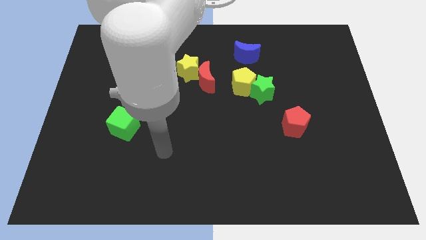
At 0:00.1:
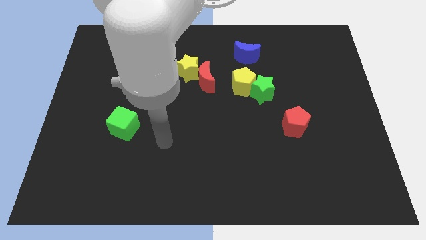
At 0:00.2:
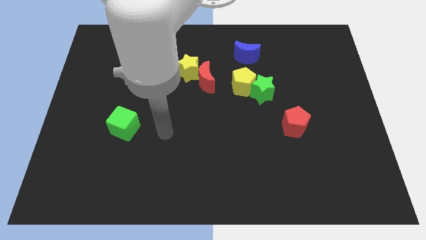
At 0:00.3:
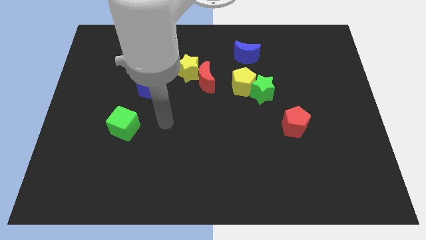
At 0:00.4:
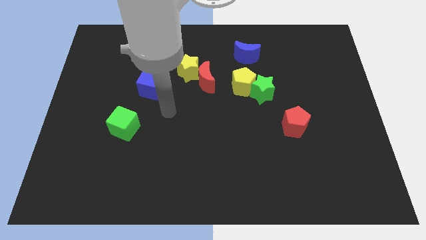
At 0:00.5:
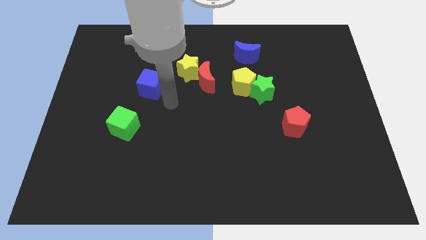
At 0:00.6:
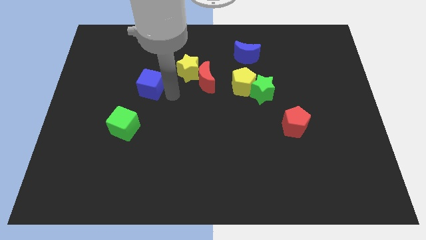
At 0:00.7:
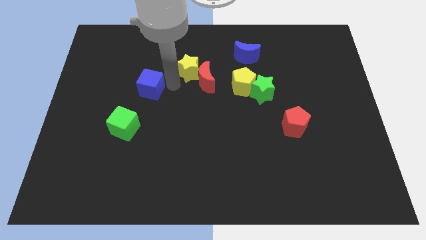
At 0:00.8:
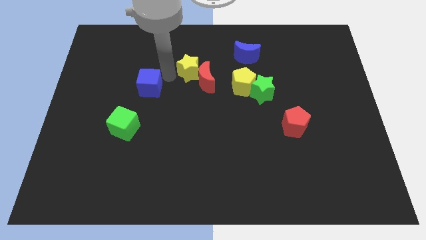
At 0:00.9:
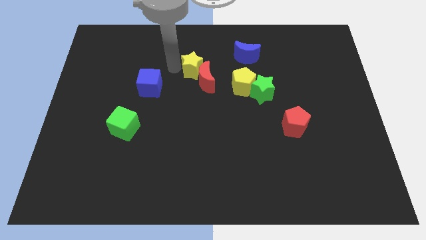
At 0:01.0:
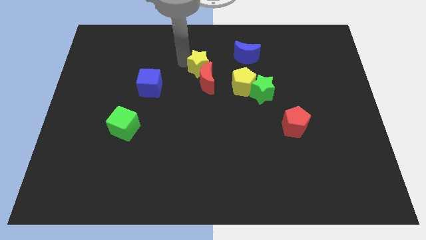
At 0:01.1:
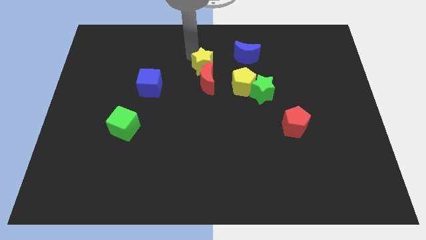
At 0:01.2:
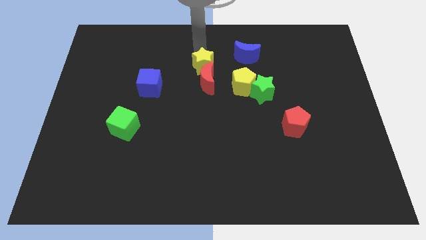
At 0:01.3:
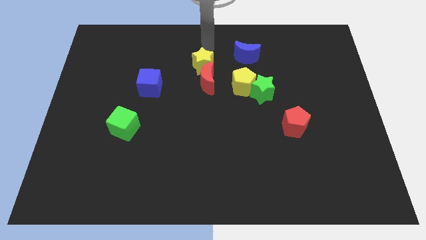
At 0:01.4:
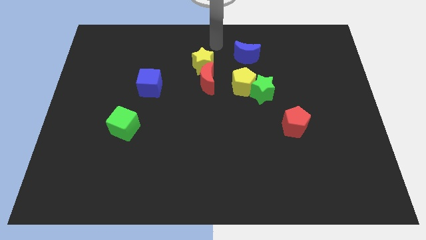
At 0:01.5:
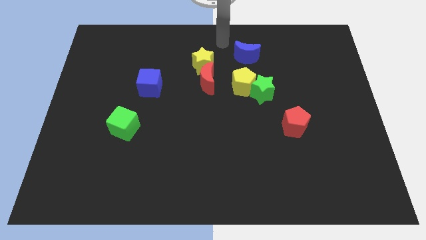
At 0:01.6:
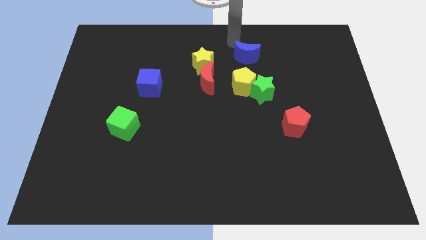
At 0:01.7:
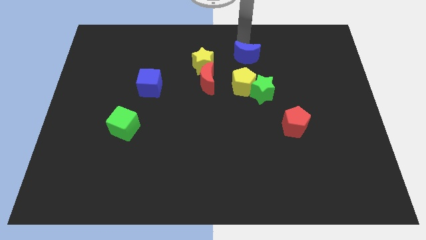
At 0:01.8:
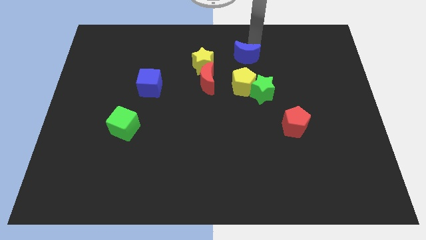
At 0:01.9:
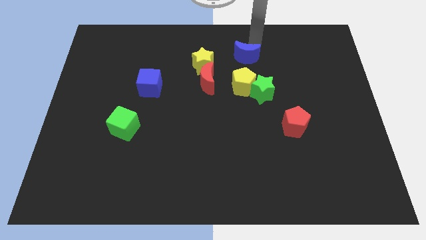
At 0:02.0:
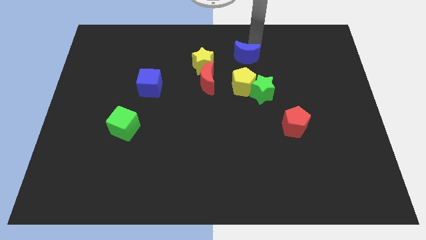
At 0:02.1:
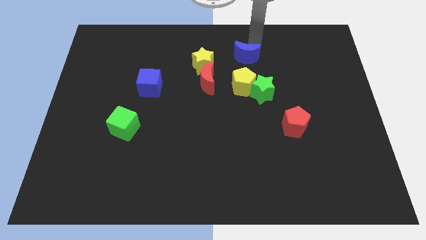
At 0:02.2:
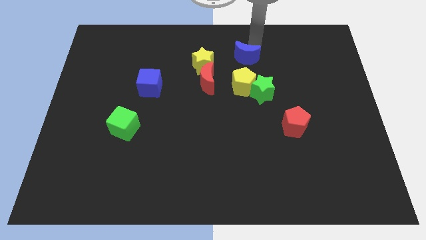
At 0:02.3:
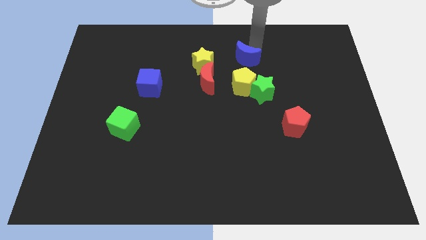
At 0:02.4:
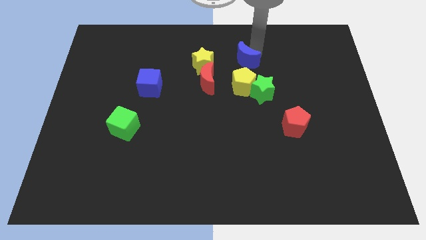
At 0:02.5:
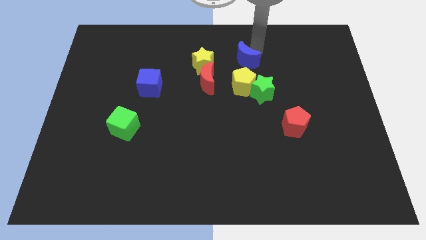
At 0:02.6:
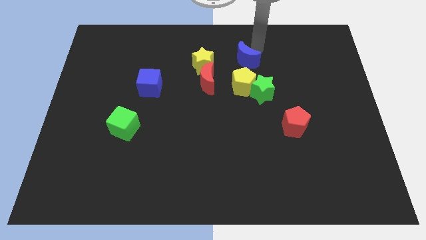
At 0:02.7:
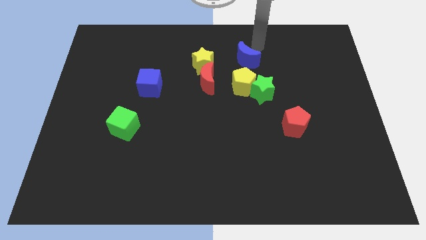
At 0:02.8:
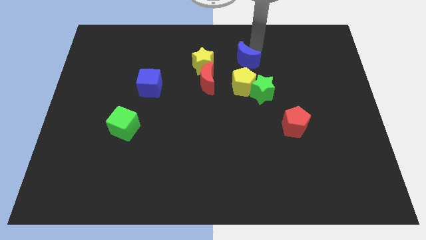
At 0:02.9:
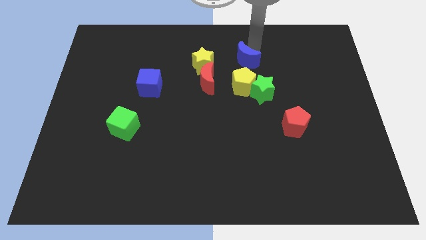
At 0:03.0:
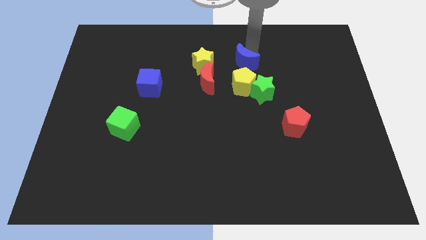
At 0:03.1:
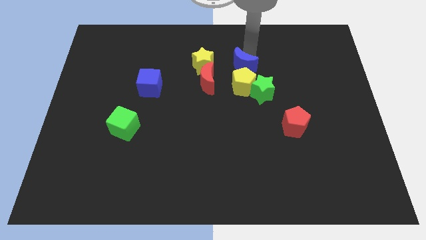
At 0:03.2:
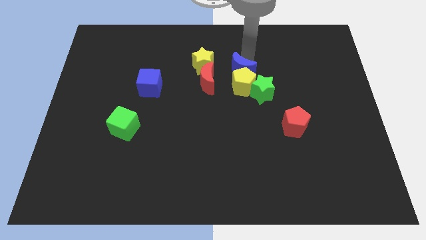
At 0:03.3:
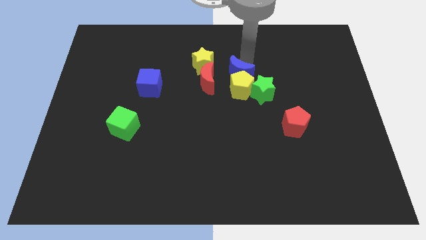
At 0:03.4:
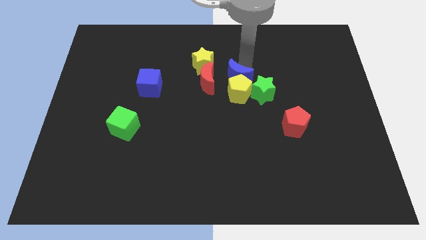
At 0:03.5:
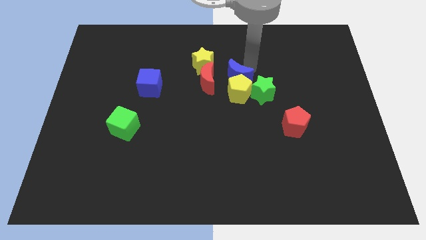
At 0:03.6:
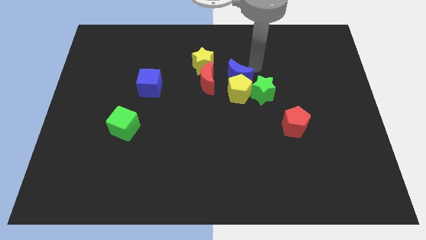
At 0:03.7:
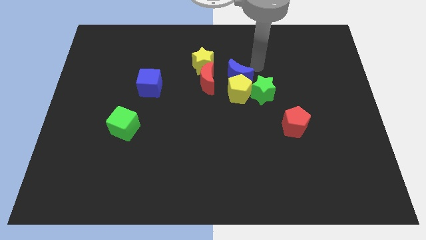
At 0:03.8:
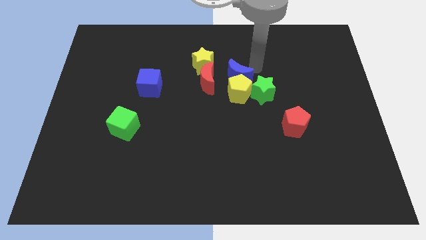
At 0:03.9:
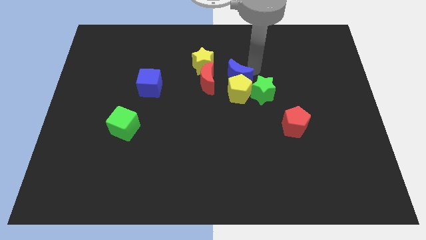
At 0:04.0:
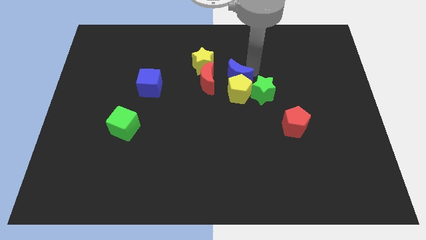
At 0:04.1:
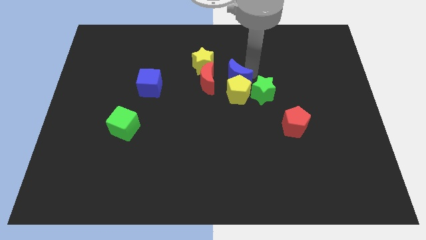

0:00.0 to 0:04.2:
move the blue moon downwards and left diagonally a bit

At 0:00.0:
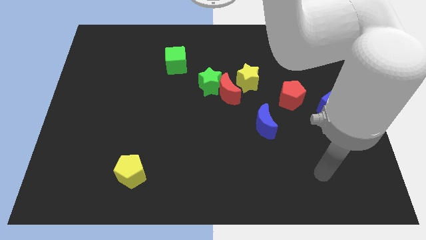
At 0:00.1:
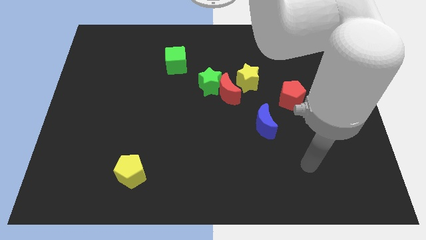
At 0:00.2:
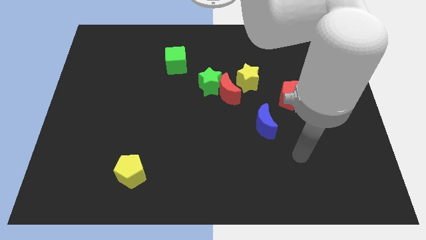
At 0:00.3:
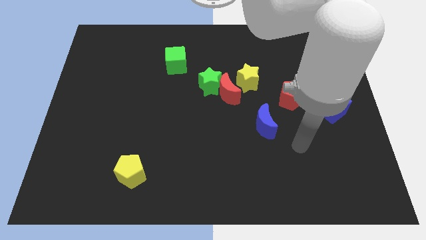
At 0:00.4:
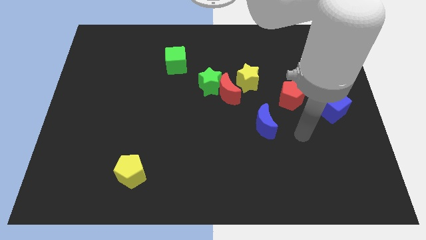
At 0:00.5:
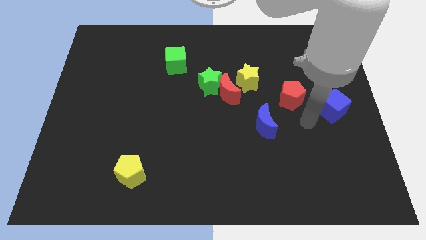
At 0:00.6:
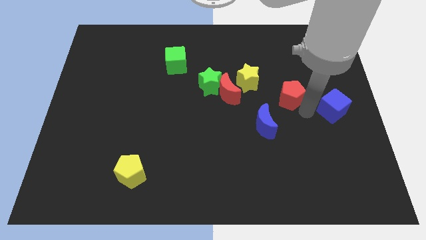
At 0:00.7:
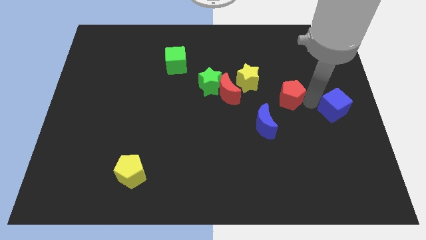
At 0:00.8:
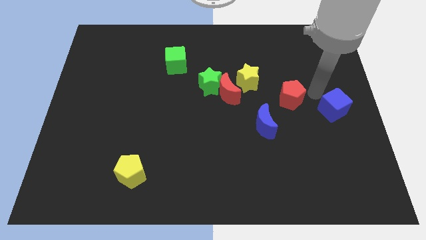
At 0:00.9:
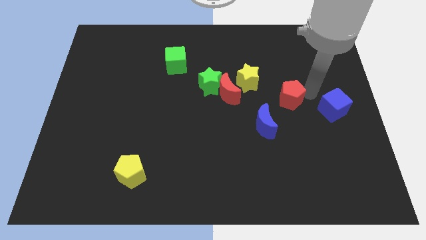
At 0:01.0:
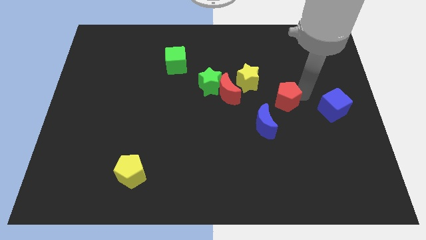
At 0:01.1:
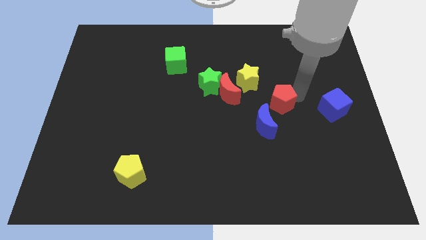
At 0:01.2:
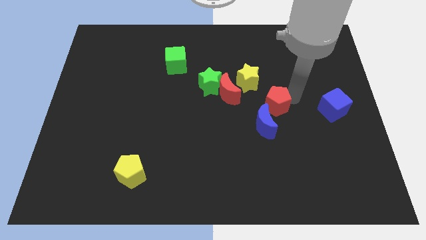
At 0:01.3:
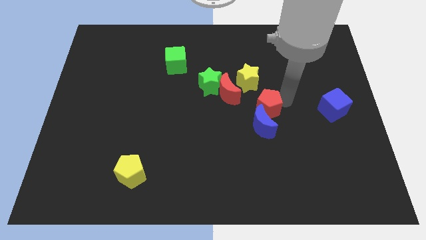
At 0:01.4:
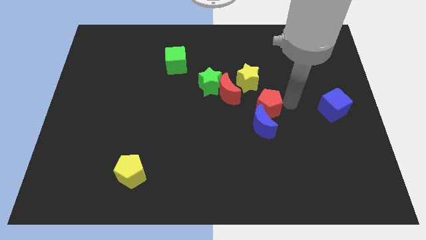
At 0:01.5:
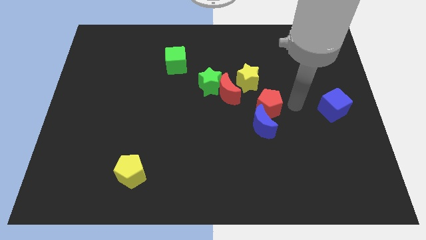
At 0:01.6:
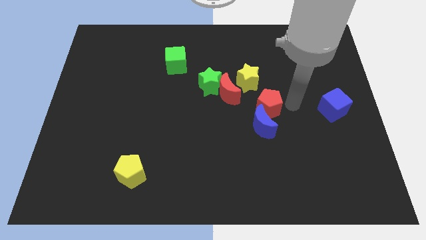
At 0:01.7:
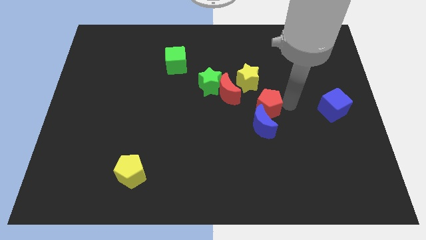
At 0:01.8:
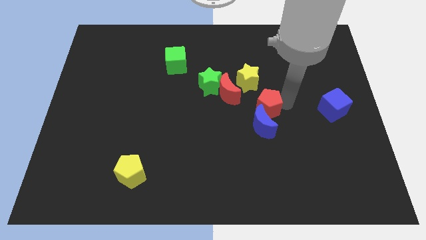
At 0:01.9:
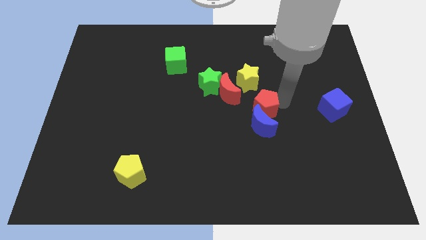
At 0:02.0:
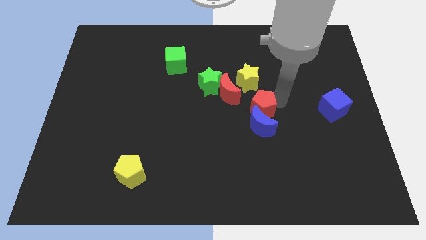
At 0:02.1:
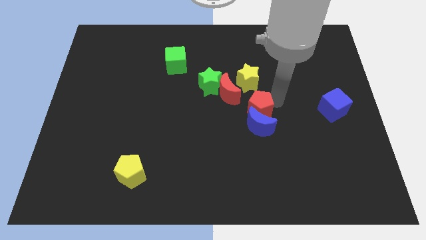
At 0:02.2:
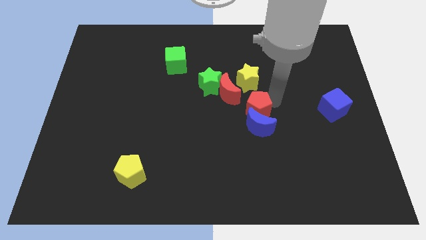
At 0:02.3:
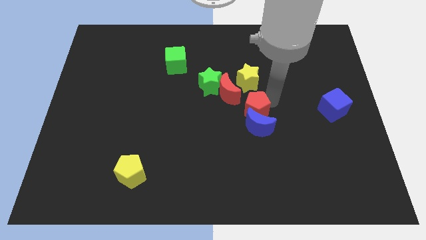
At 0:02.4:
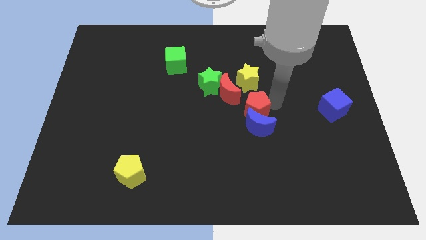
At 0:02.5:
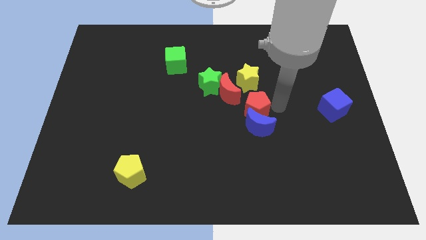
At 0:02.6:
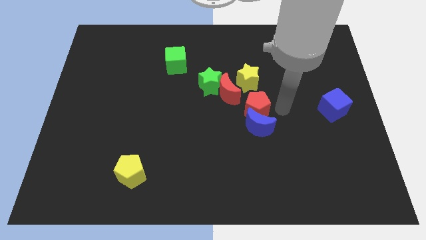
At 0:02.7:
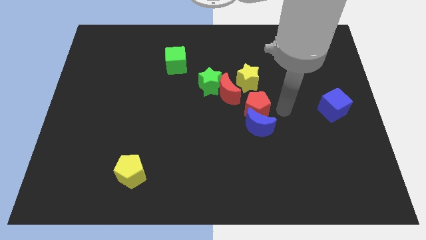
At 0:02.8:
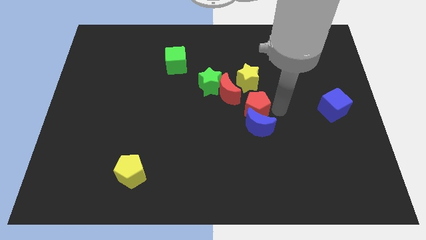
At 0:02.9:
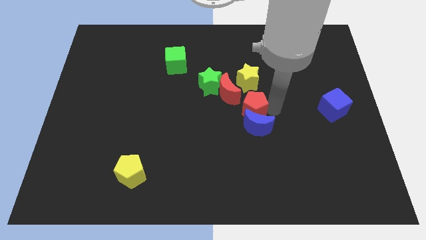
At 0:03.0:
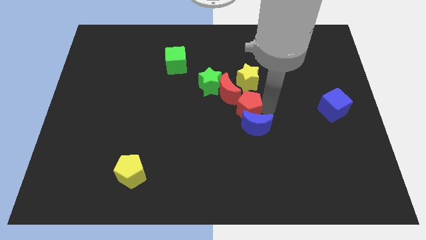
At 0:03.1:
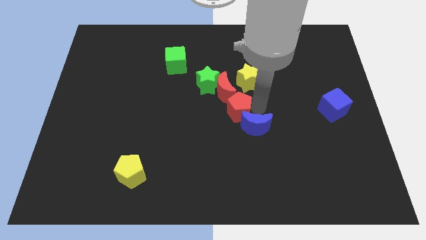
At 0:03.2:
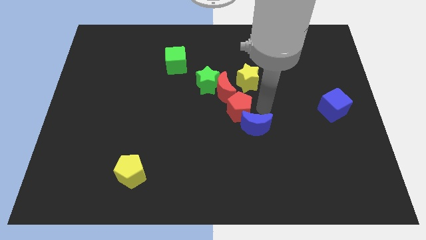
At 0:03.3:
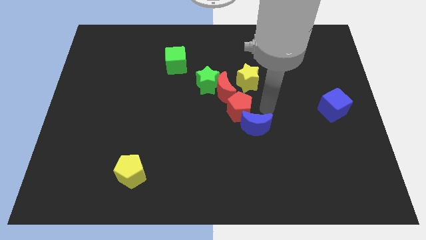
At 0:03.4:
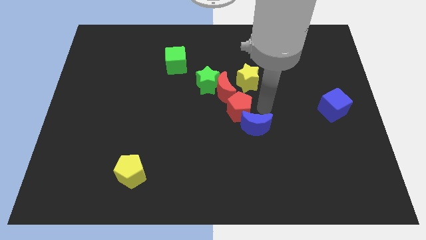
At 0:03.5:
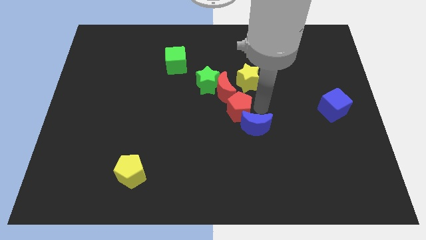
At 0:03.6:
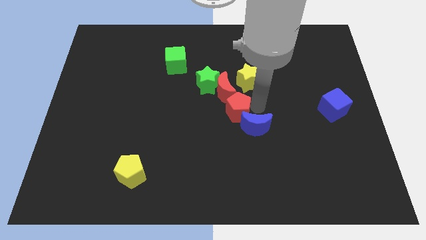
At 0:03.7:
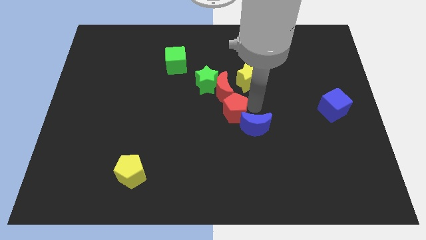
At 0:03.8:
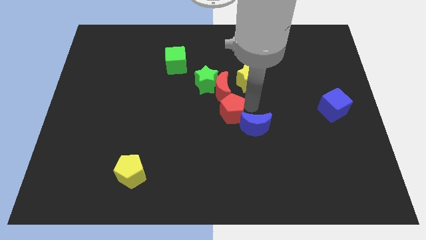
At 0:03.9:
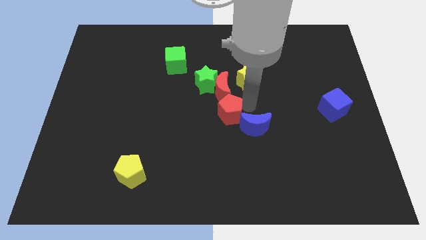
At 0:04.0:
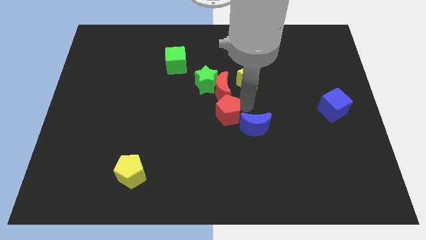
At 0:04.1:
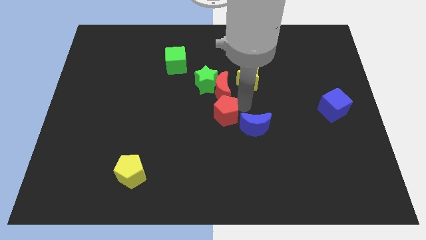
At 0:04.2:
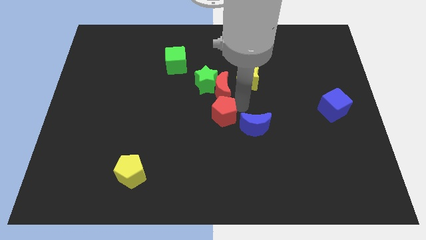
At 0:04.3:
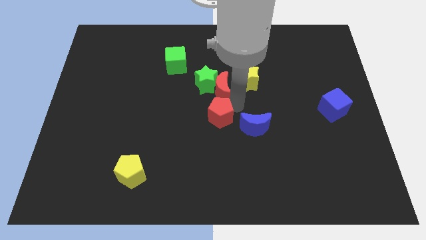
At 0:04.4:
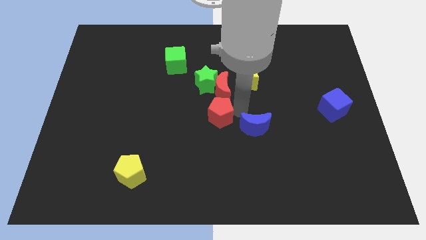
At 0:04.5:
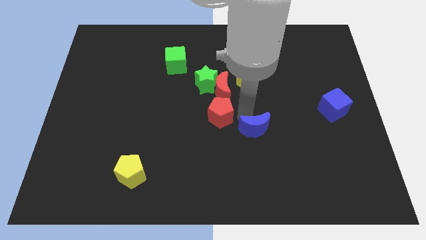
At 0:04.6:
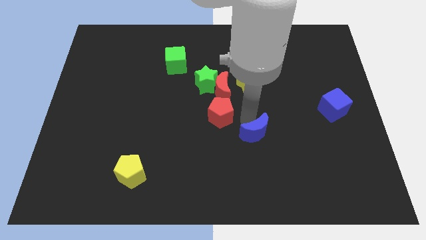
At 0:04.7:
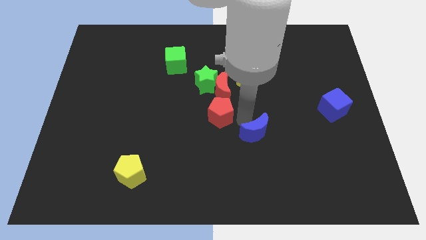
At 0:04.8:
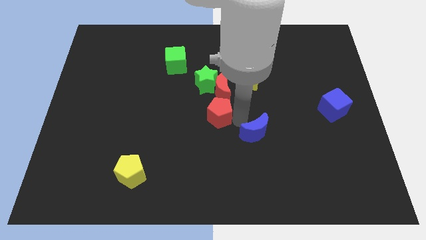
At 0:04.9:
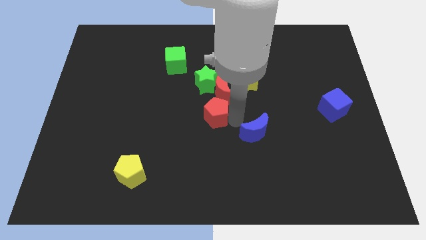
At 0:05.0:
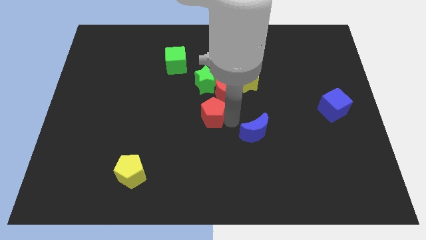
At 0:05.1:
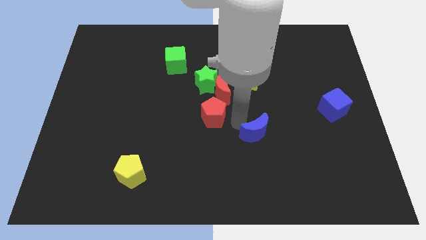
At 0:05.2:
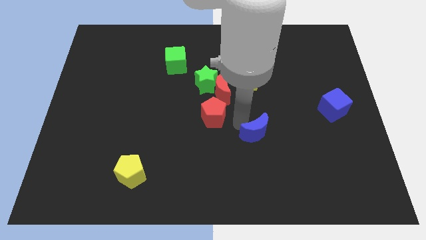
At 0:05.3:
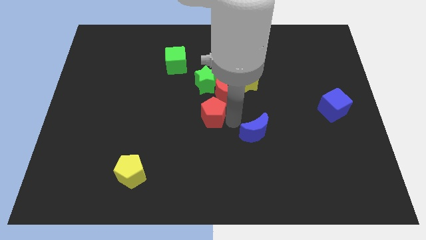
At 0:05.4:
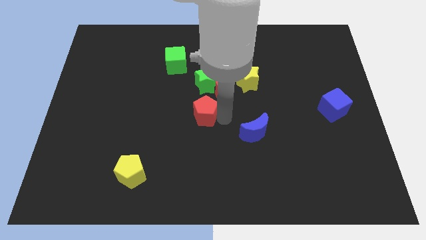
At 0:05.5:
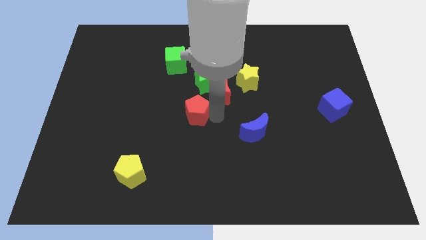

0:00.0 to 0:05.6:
move the red pentagon left
